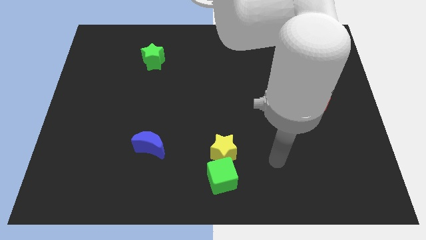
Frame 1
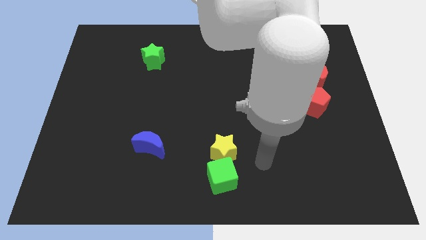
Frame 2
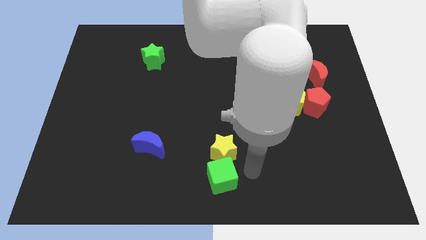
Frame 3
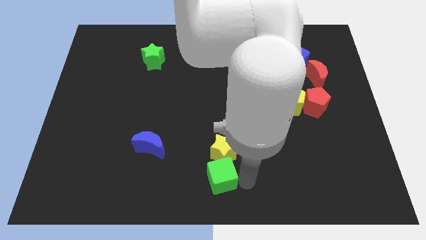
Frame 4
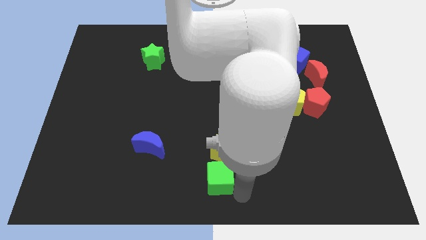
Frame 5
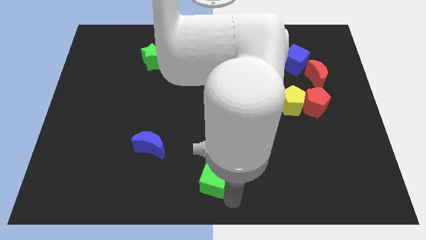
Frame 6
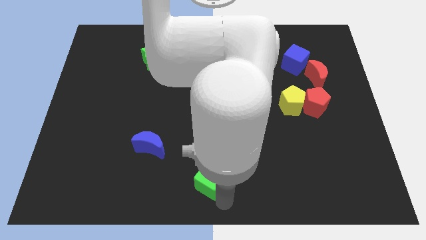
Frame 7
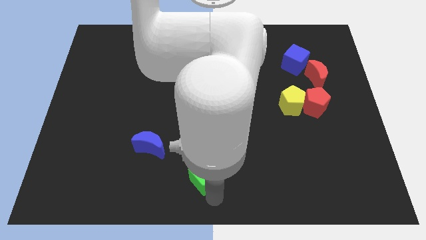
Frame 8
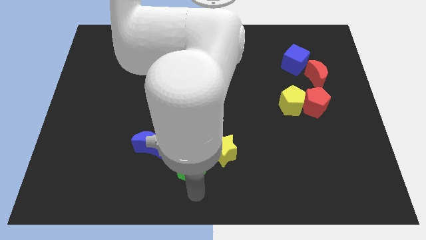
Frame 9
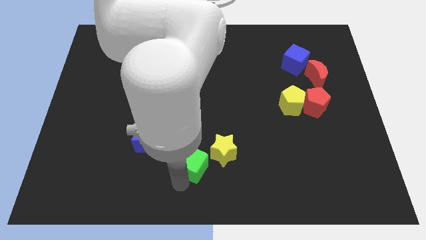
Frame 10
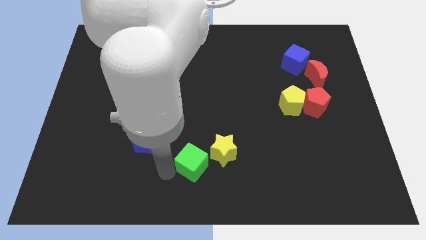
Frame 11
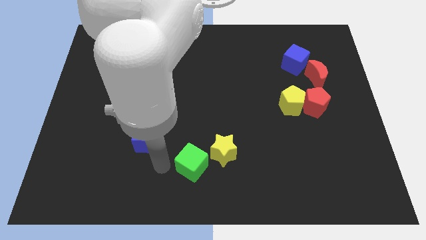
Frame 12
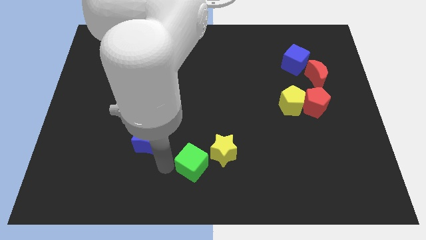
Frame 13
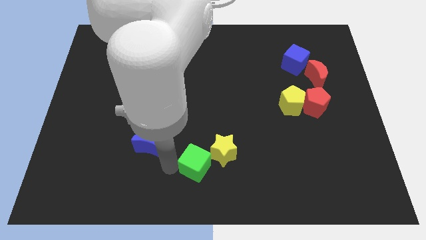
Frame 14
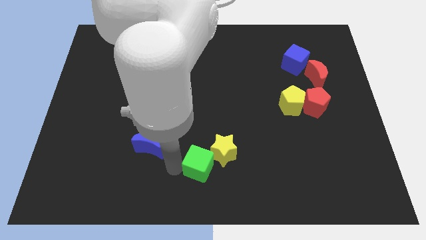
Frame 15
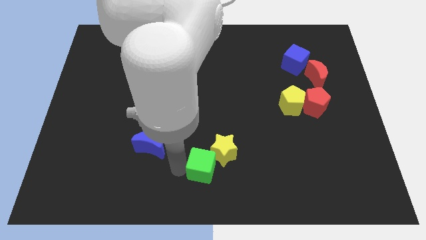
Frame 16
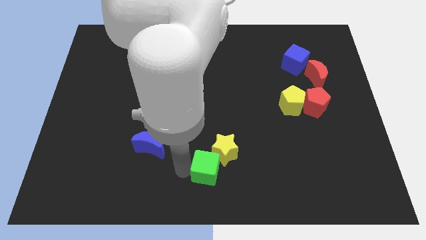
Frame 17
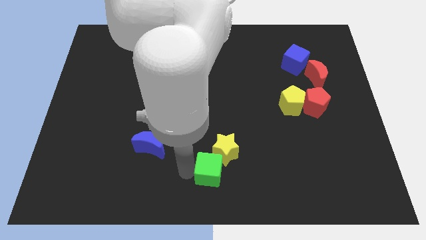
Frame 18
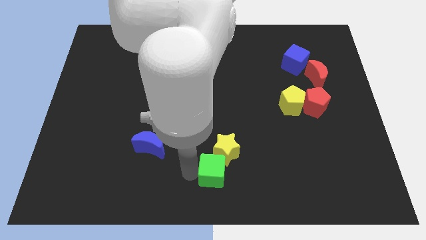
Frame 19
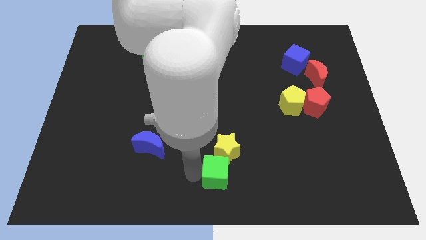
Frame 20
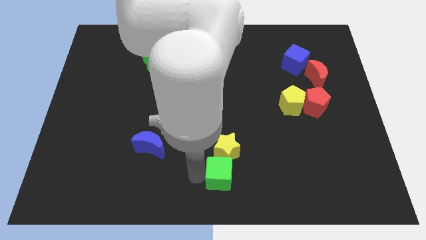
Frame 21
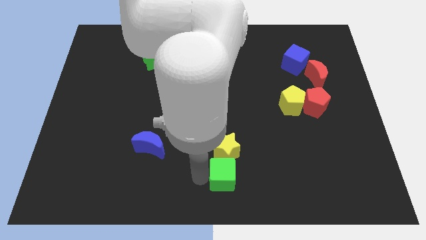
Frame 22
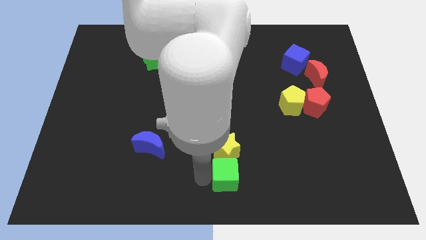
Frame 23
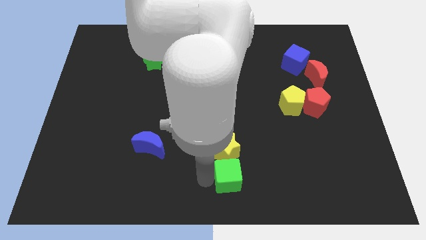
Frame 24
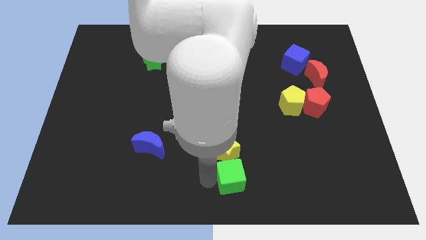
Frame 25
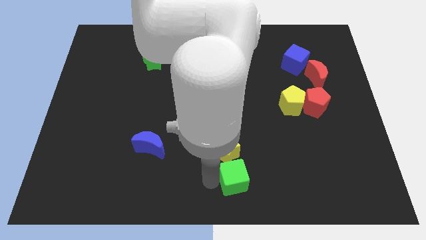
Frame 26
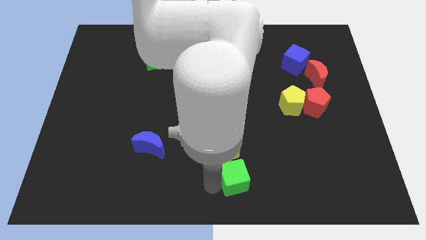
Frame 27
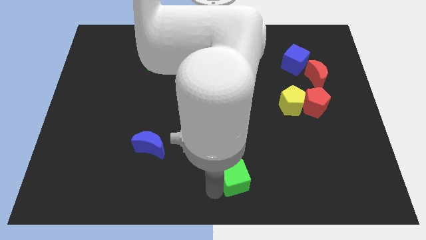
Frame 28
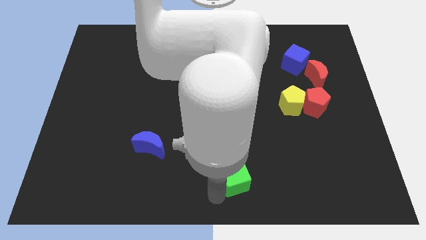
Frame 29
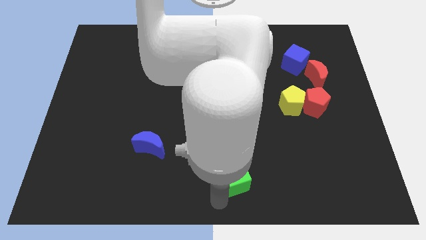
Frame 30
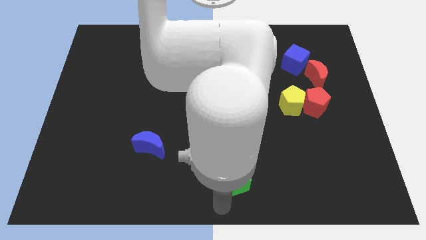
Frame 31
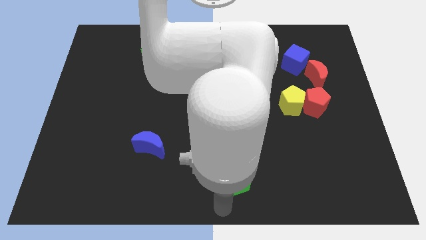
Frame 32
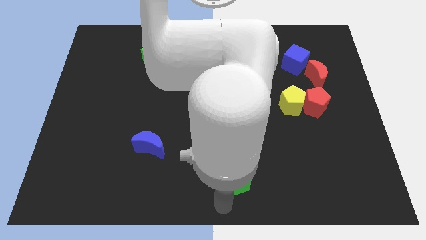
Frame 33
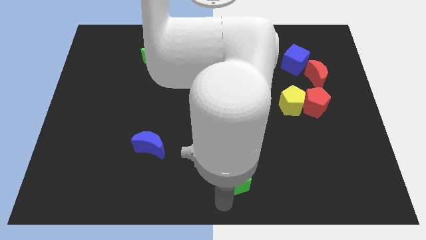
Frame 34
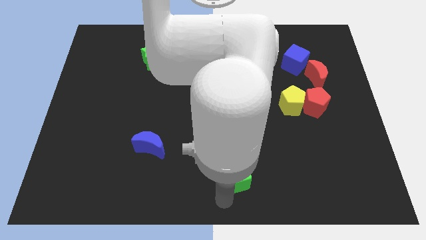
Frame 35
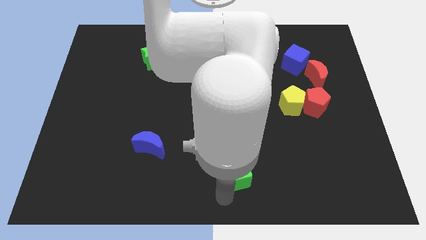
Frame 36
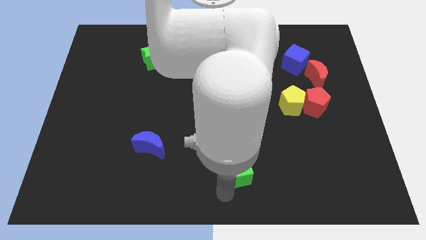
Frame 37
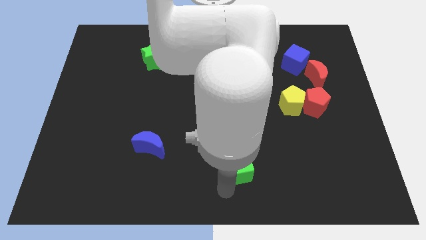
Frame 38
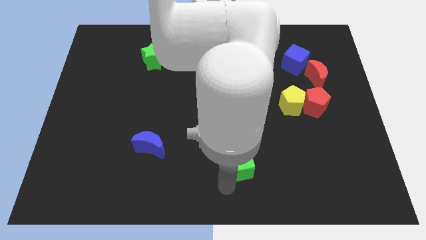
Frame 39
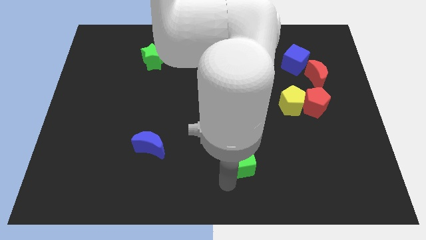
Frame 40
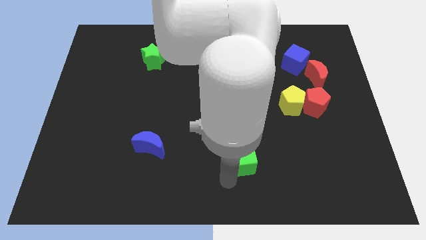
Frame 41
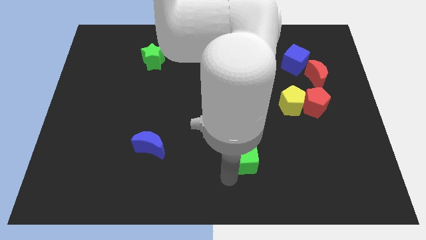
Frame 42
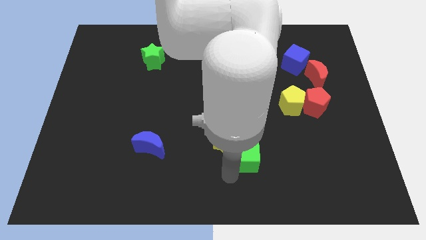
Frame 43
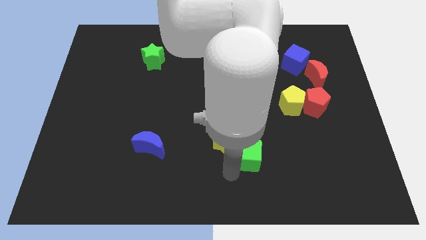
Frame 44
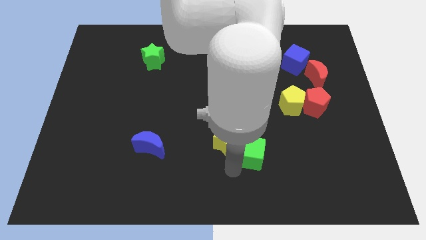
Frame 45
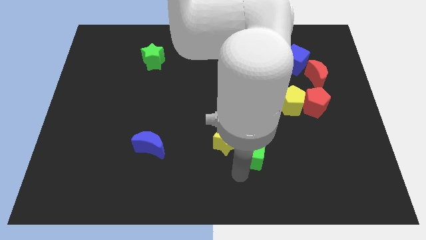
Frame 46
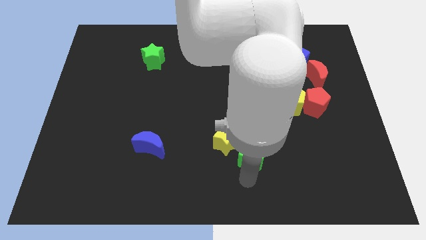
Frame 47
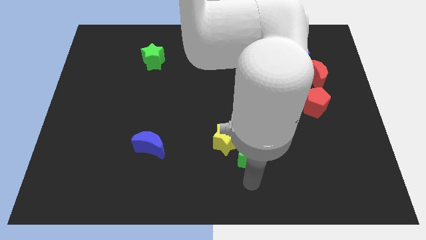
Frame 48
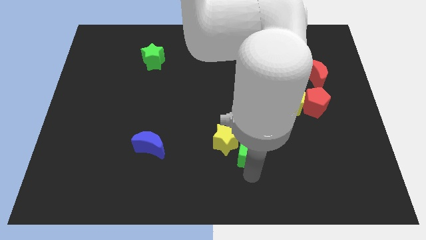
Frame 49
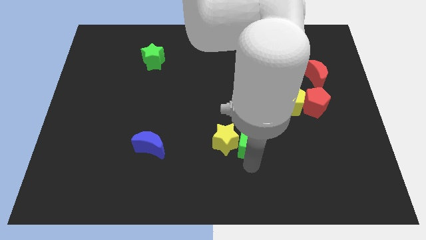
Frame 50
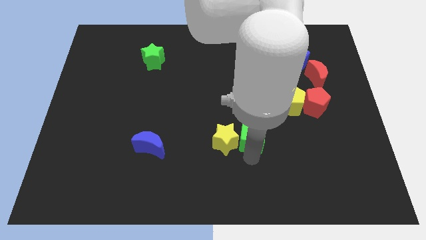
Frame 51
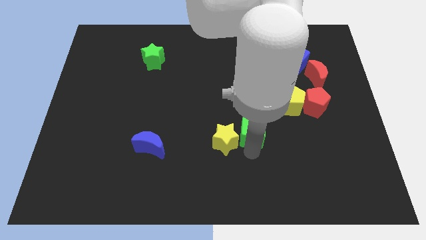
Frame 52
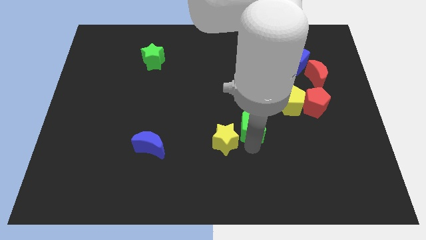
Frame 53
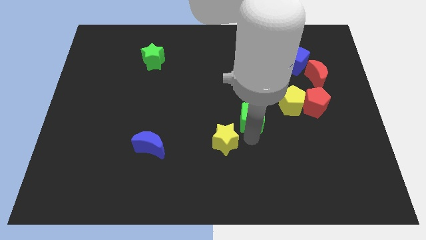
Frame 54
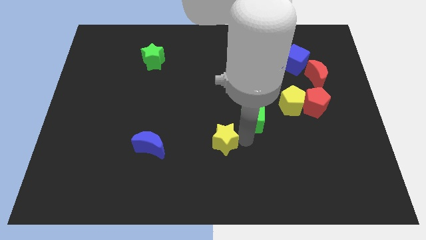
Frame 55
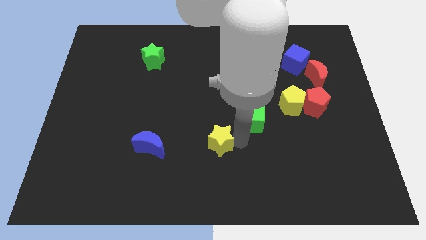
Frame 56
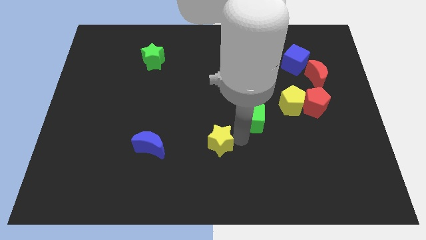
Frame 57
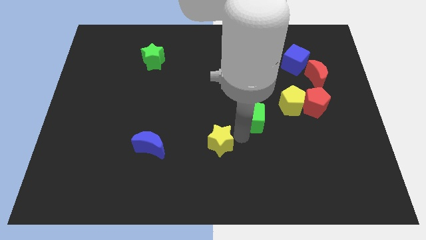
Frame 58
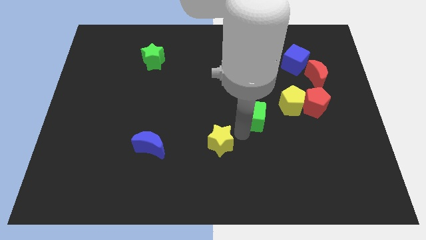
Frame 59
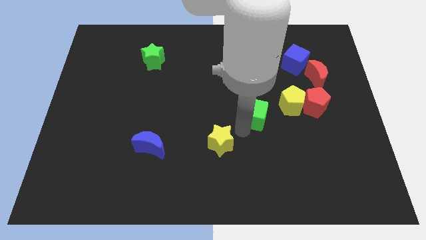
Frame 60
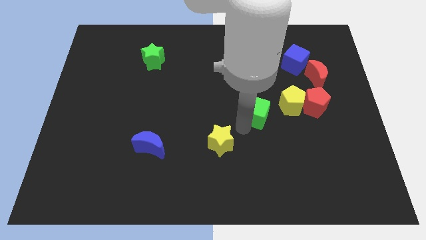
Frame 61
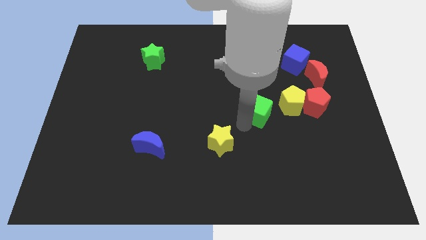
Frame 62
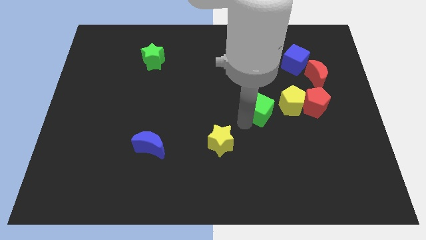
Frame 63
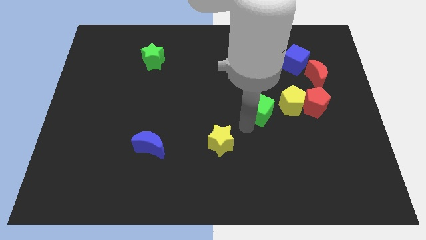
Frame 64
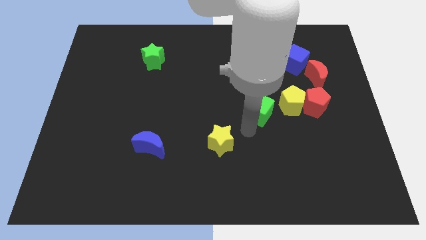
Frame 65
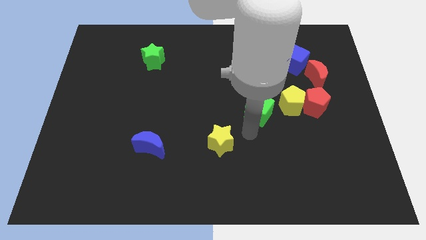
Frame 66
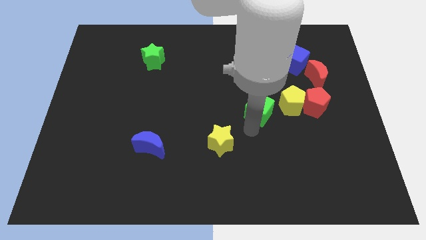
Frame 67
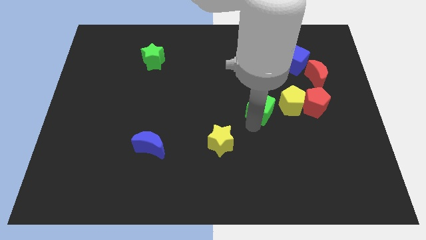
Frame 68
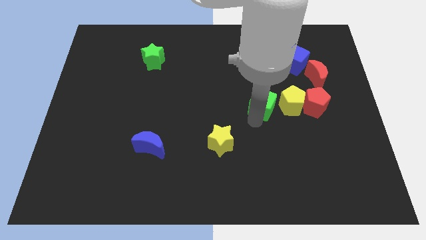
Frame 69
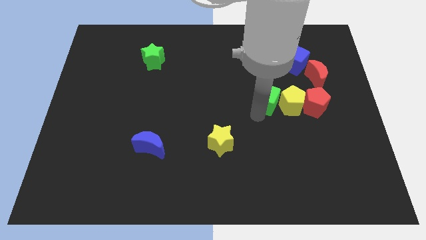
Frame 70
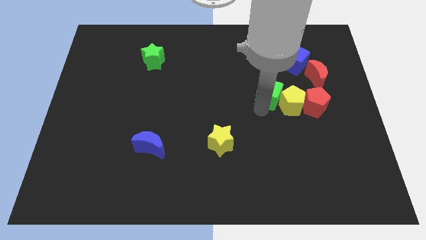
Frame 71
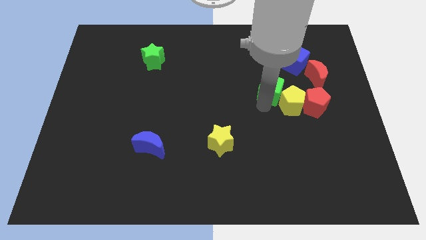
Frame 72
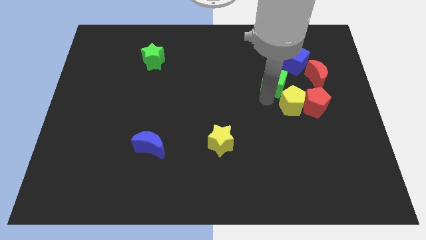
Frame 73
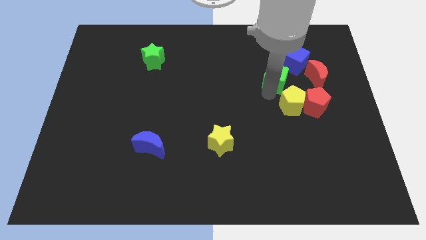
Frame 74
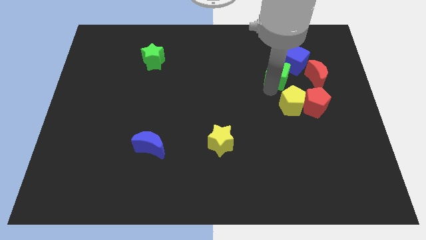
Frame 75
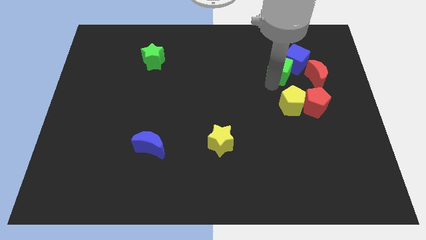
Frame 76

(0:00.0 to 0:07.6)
move the green cube next to the blue cube
